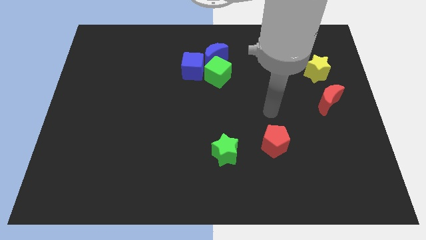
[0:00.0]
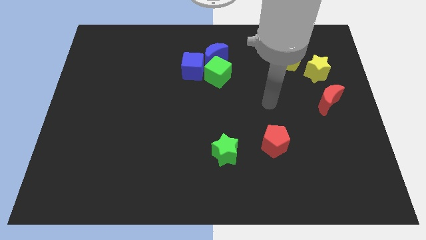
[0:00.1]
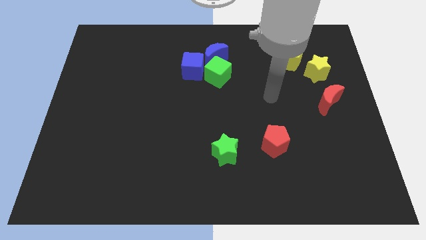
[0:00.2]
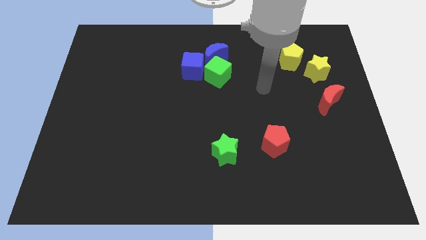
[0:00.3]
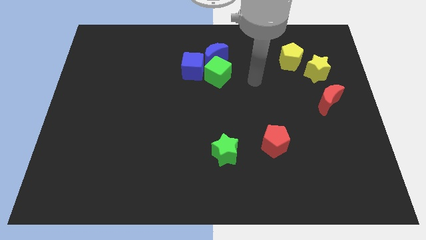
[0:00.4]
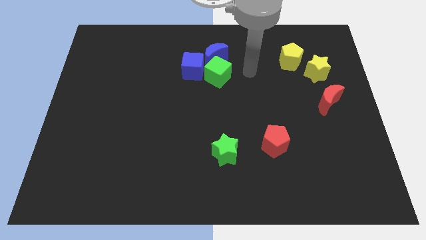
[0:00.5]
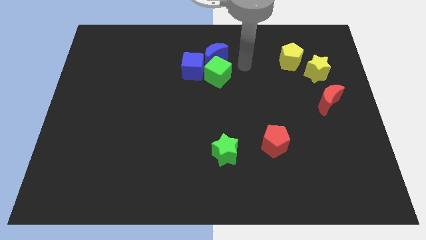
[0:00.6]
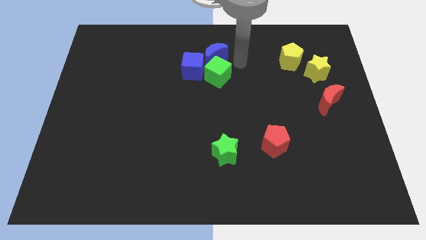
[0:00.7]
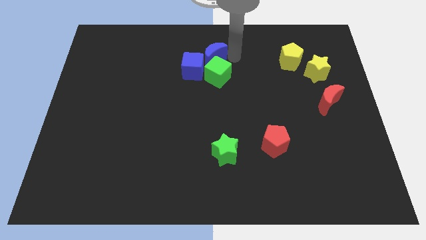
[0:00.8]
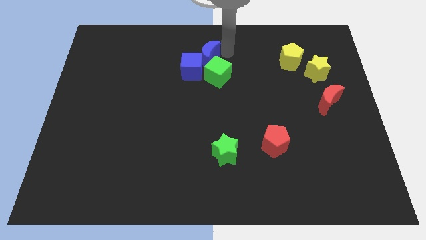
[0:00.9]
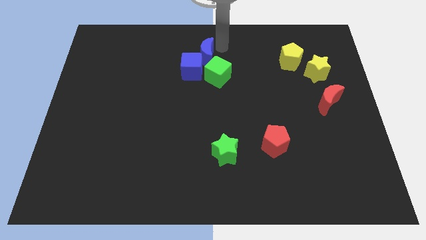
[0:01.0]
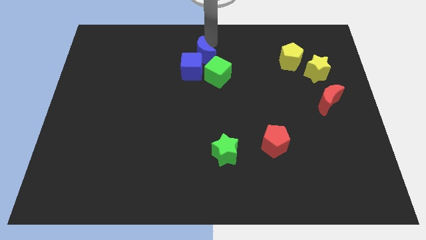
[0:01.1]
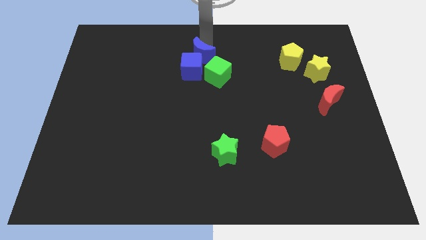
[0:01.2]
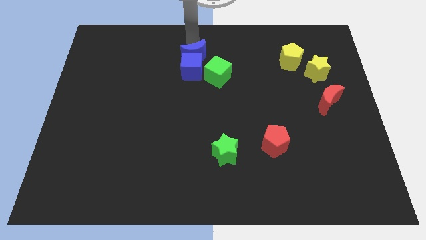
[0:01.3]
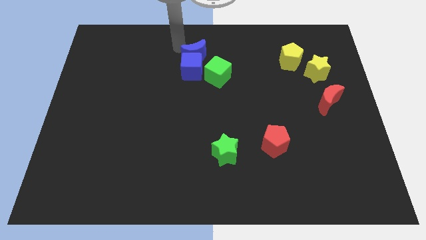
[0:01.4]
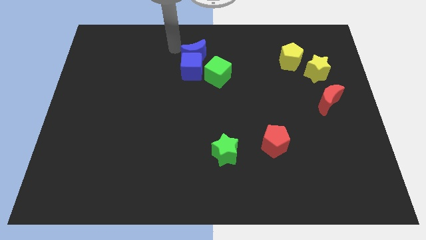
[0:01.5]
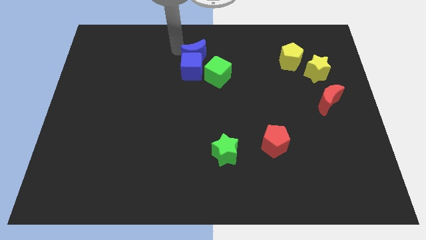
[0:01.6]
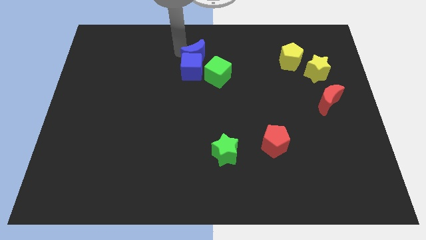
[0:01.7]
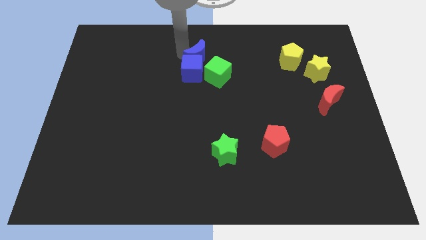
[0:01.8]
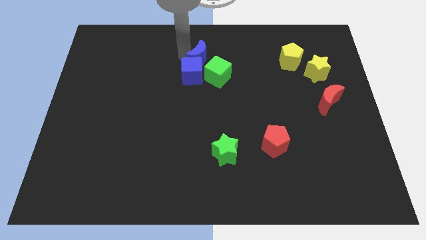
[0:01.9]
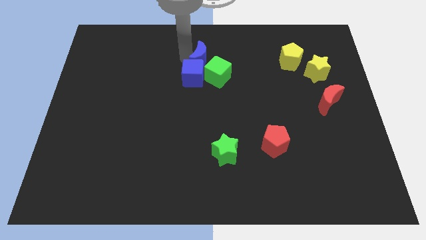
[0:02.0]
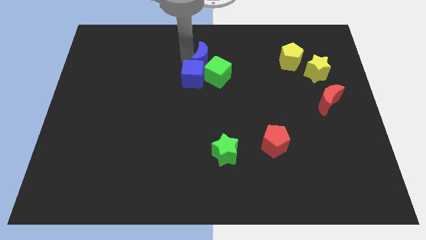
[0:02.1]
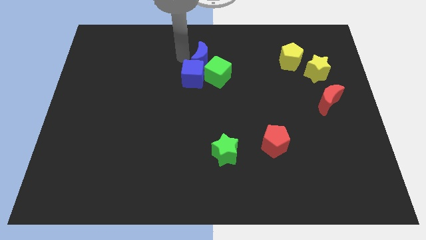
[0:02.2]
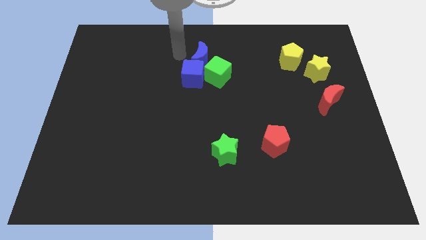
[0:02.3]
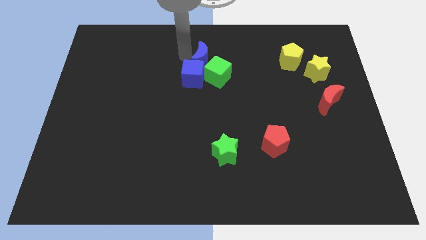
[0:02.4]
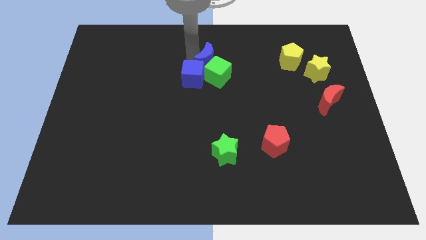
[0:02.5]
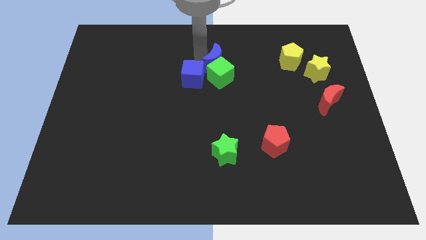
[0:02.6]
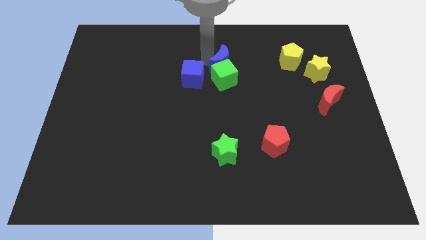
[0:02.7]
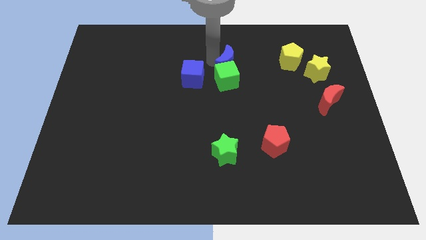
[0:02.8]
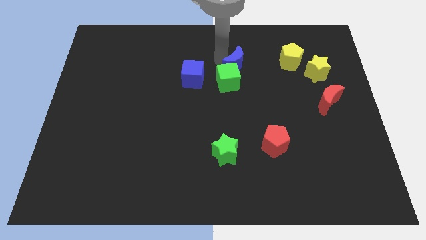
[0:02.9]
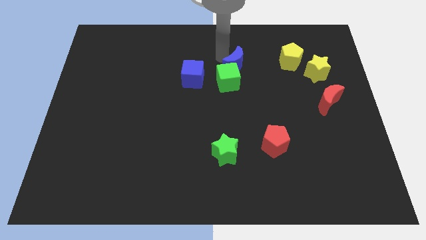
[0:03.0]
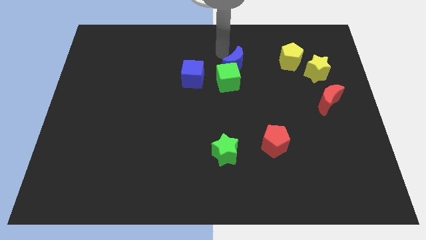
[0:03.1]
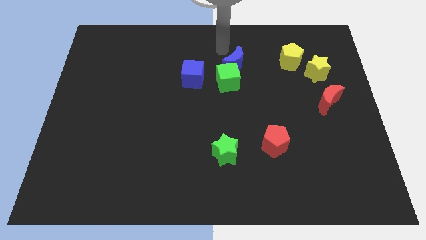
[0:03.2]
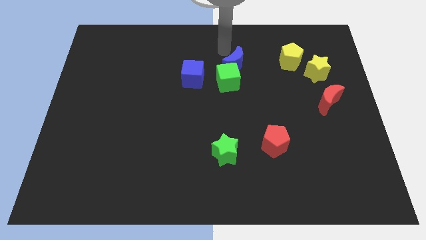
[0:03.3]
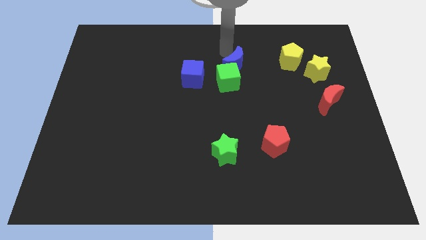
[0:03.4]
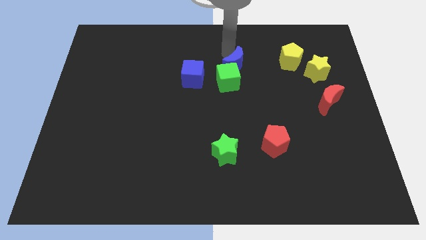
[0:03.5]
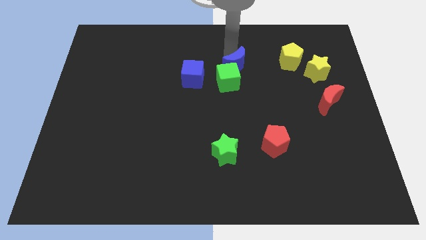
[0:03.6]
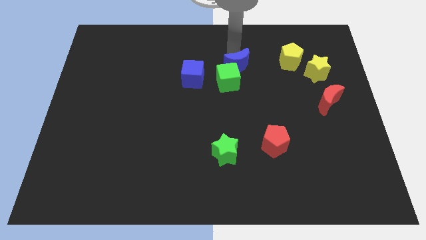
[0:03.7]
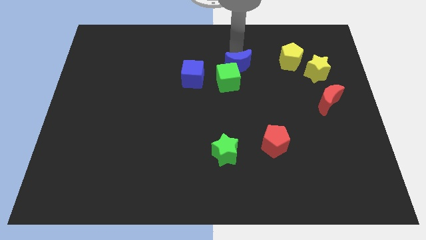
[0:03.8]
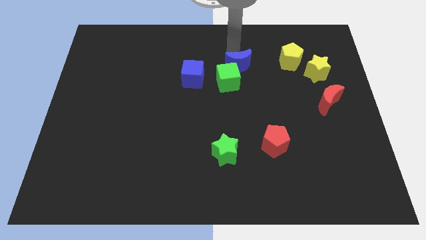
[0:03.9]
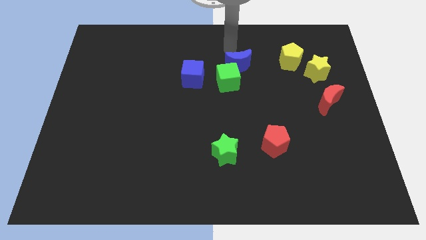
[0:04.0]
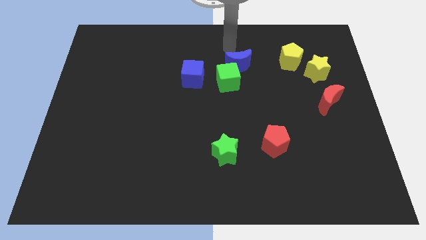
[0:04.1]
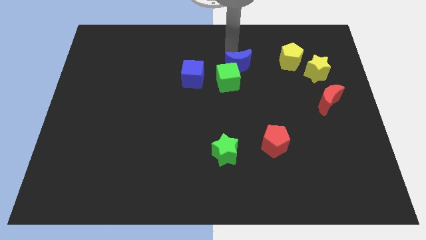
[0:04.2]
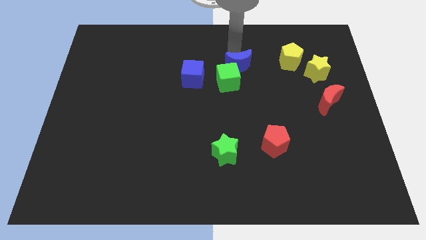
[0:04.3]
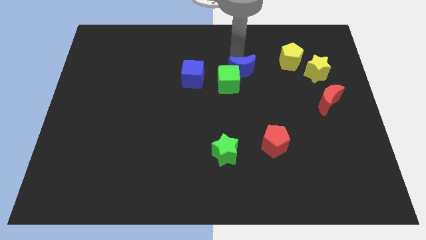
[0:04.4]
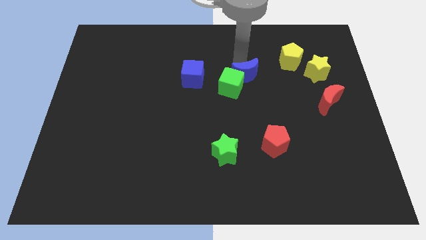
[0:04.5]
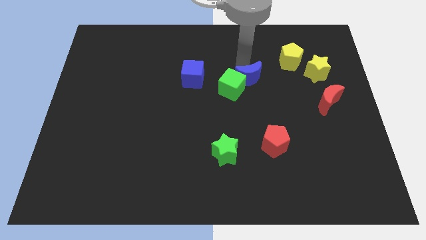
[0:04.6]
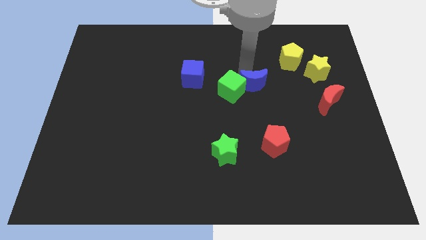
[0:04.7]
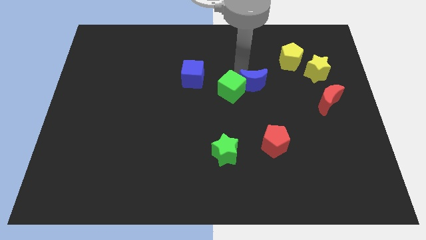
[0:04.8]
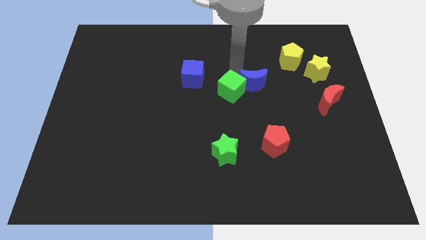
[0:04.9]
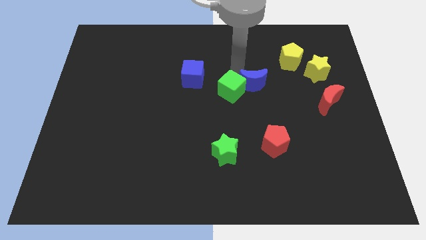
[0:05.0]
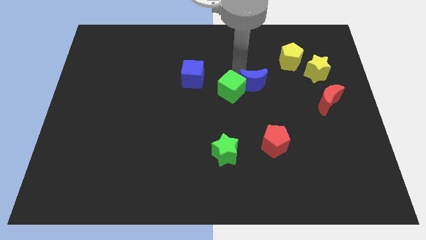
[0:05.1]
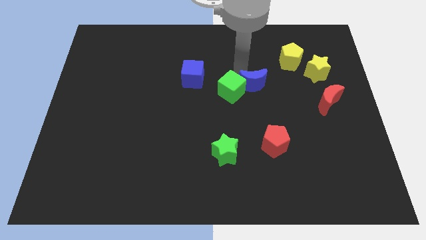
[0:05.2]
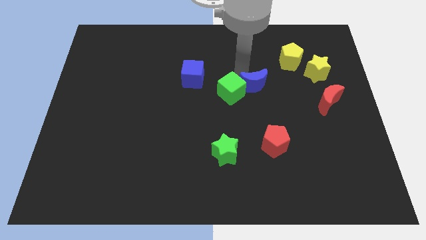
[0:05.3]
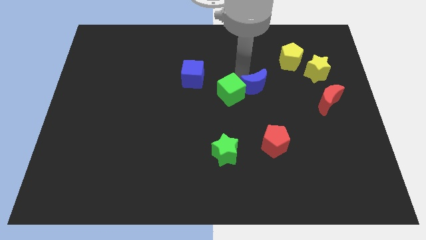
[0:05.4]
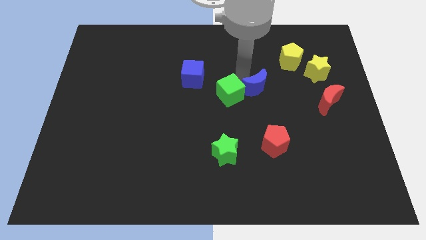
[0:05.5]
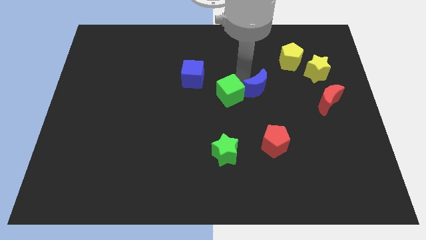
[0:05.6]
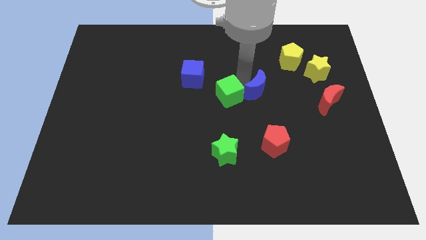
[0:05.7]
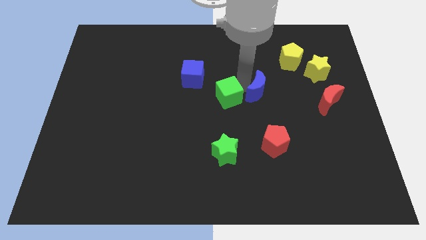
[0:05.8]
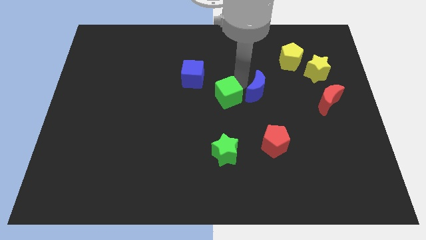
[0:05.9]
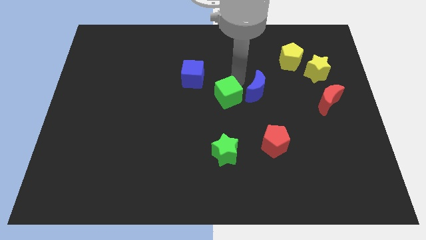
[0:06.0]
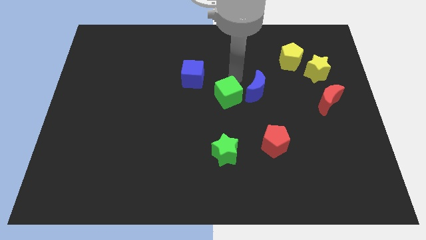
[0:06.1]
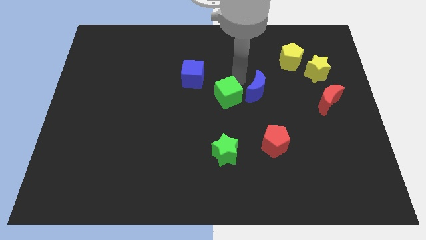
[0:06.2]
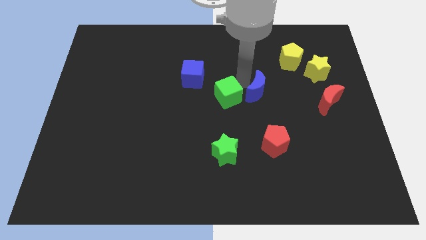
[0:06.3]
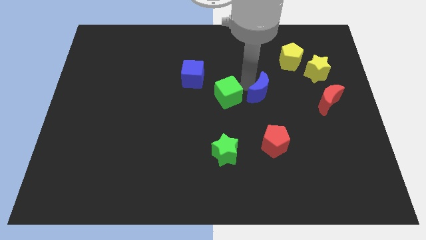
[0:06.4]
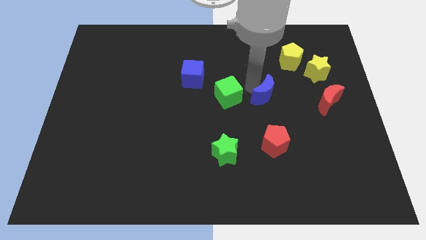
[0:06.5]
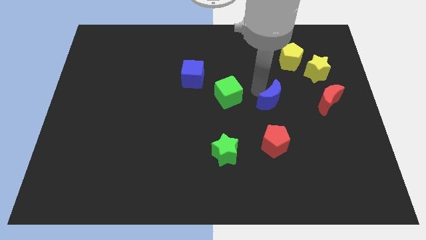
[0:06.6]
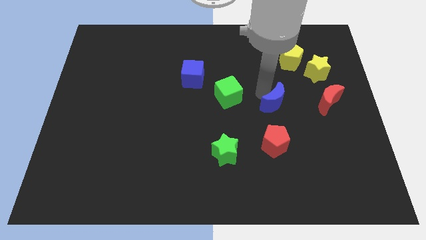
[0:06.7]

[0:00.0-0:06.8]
slide the blue moon diagonally down and to the right

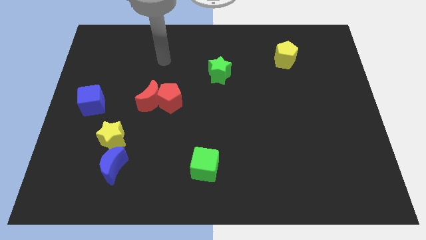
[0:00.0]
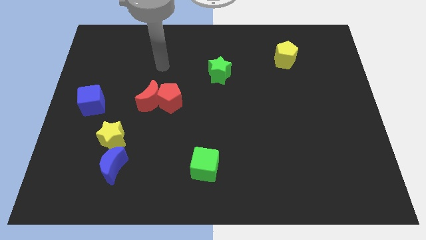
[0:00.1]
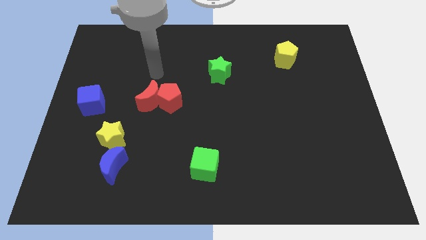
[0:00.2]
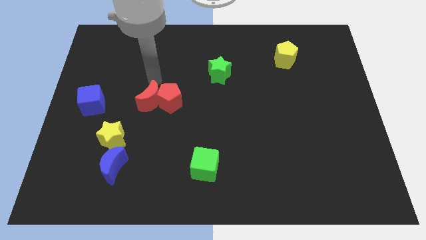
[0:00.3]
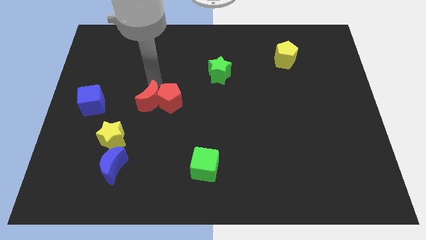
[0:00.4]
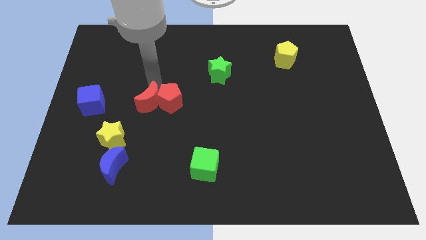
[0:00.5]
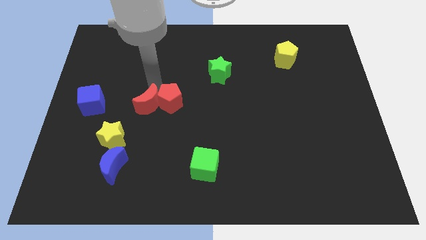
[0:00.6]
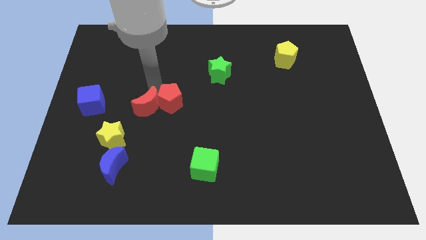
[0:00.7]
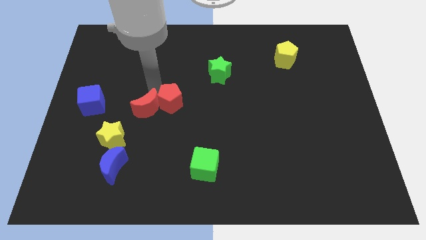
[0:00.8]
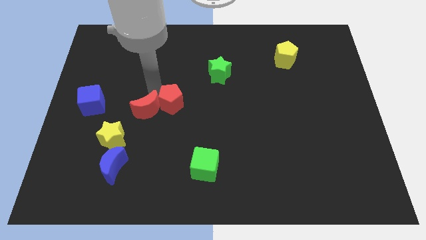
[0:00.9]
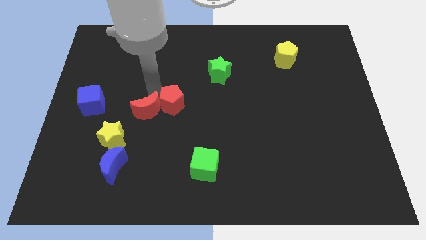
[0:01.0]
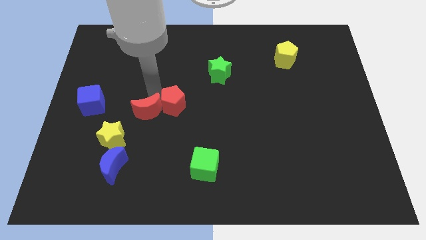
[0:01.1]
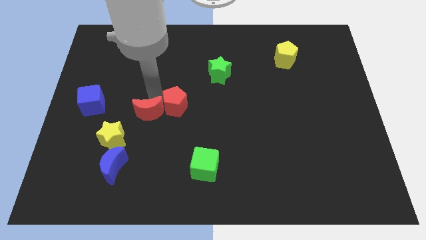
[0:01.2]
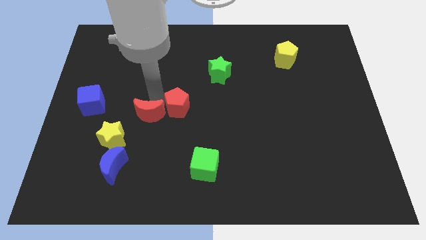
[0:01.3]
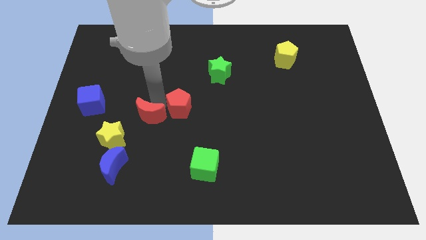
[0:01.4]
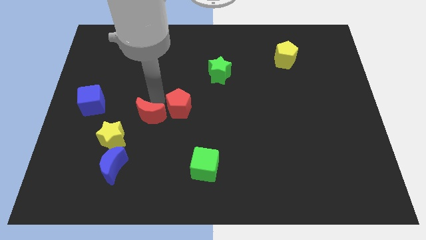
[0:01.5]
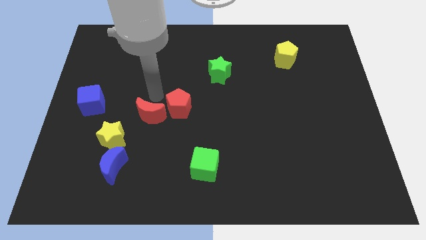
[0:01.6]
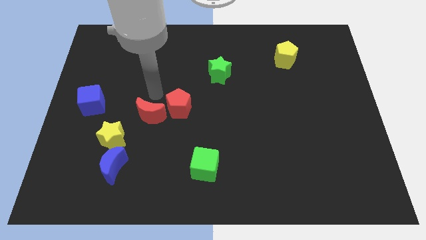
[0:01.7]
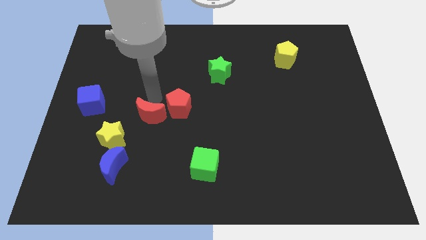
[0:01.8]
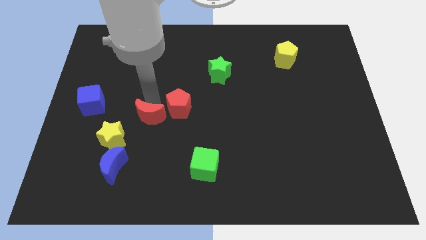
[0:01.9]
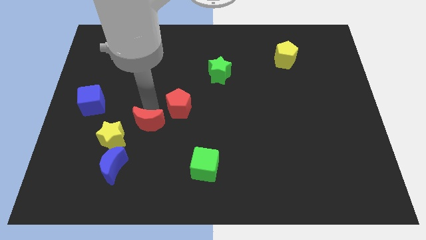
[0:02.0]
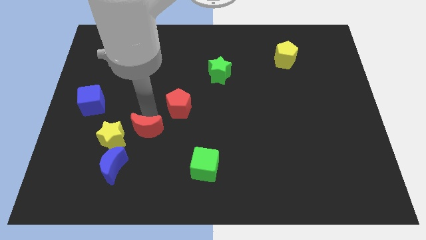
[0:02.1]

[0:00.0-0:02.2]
slightly move the red moon downwards
